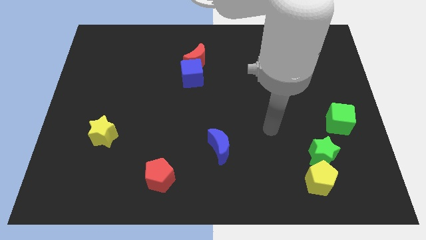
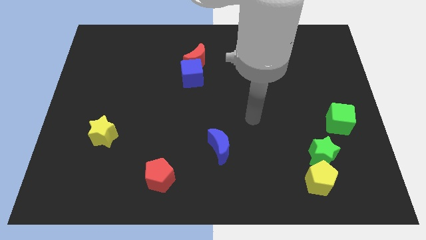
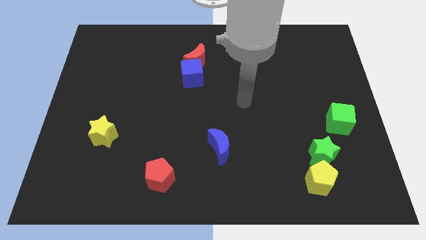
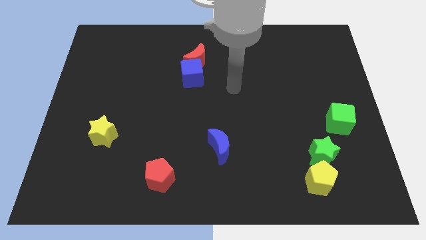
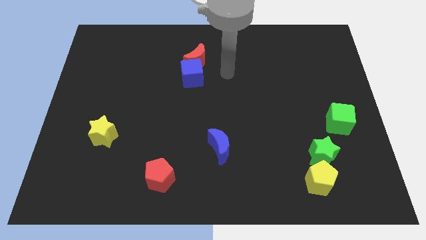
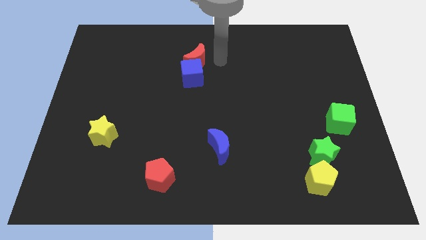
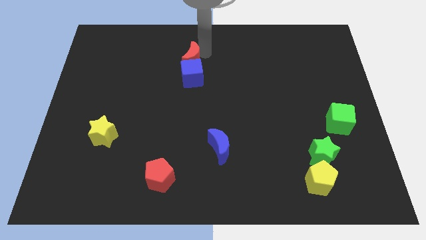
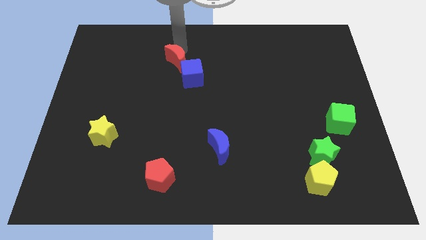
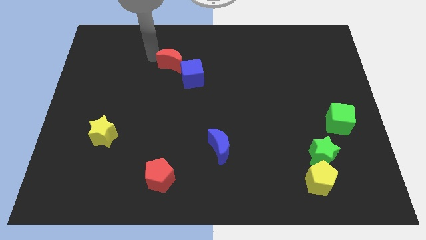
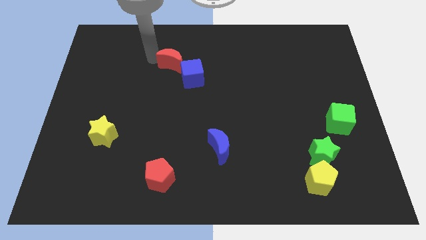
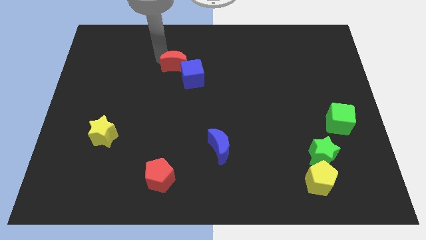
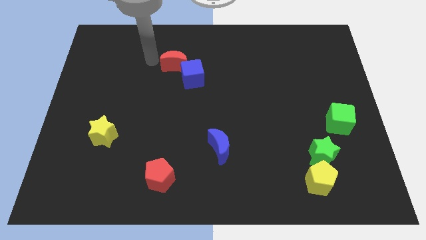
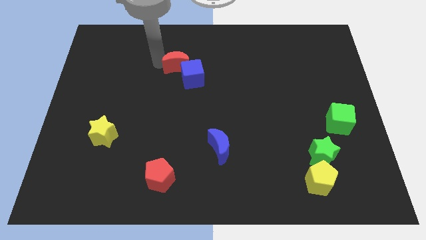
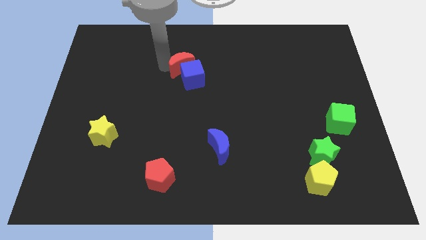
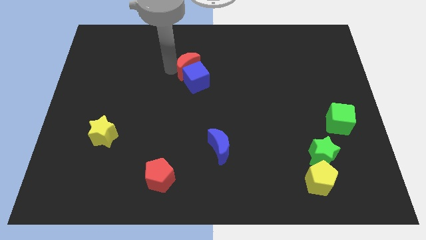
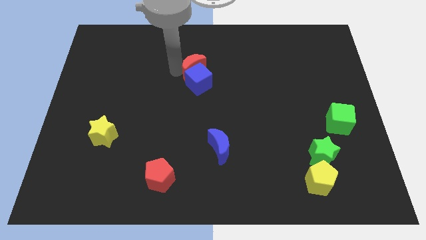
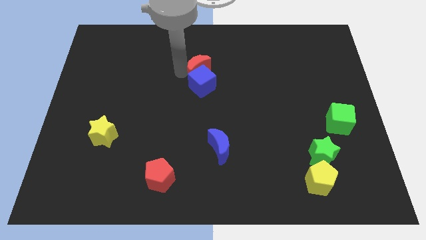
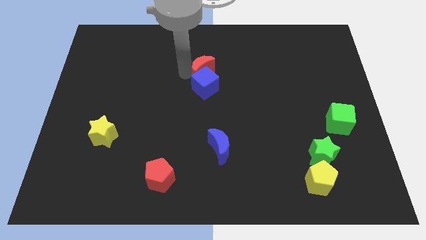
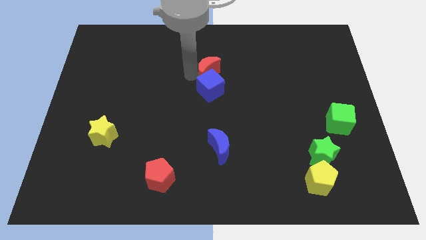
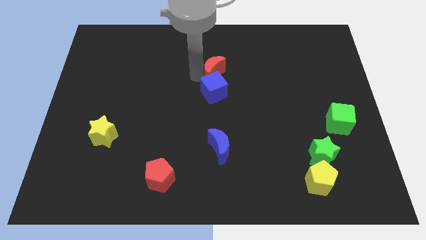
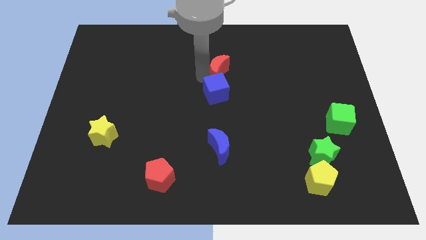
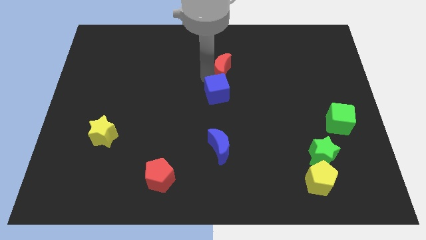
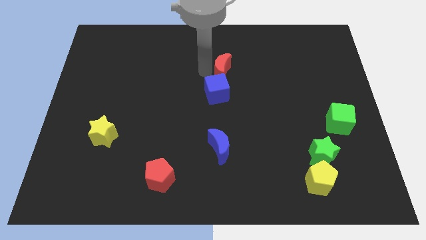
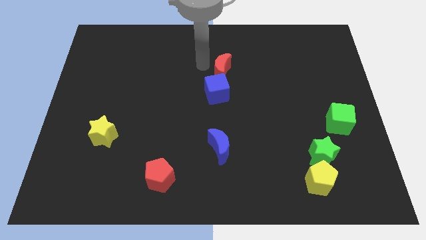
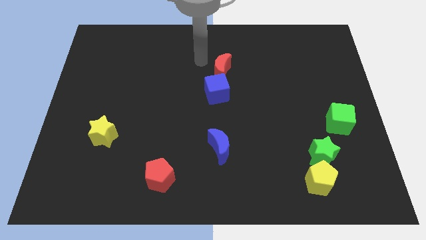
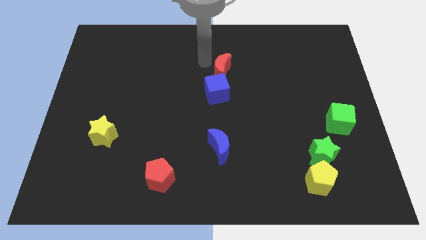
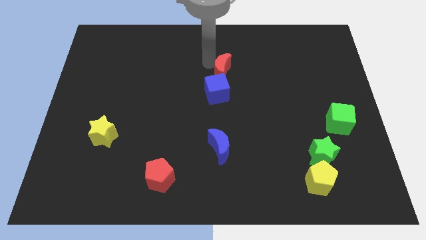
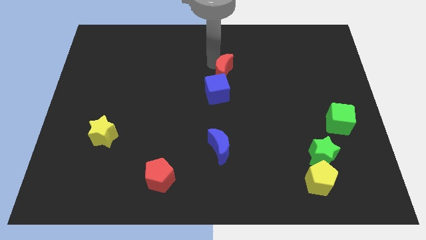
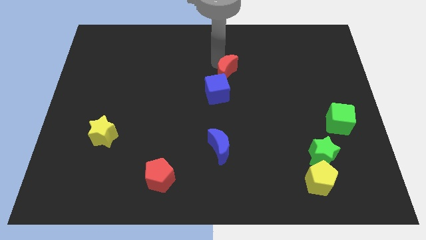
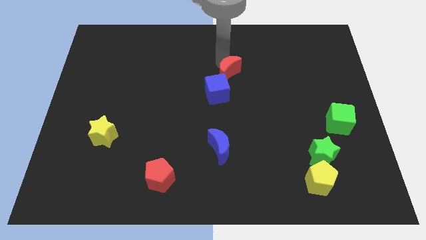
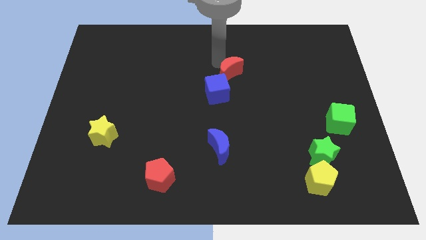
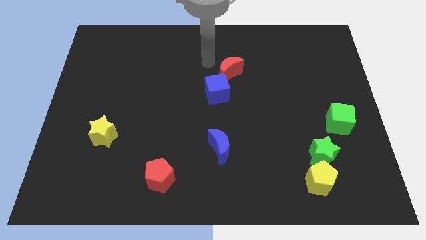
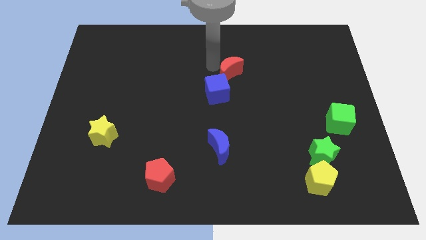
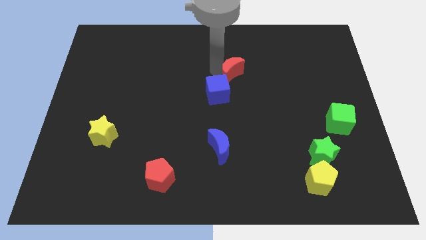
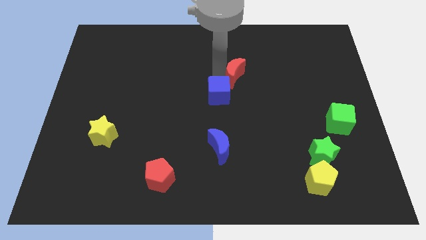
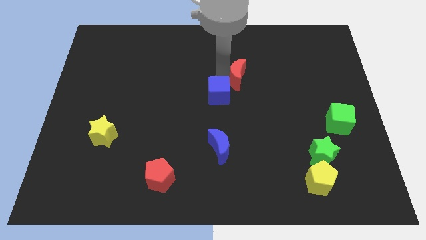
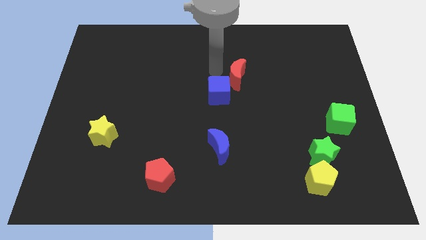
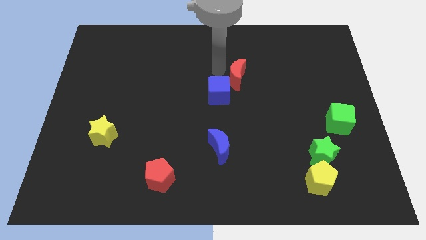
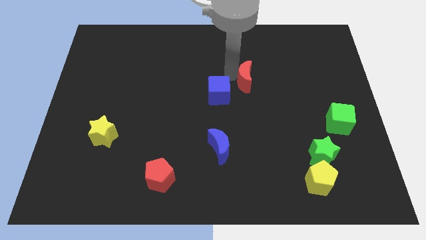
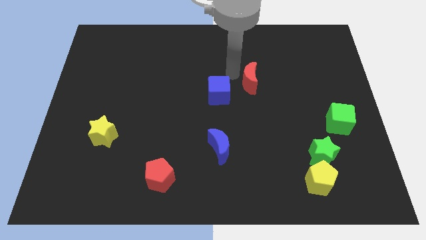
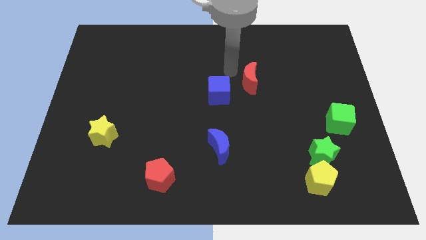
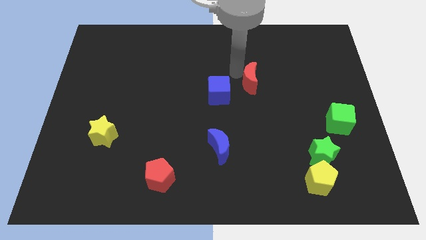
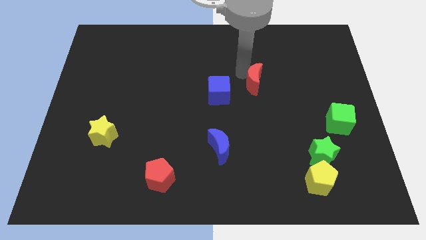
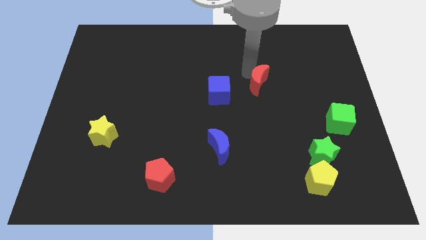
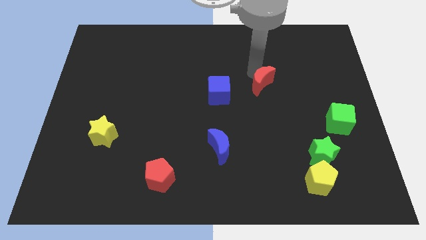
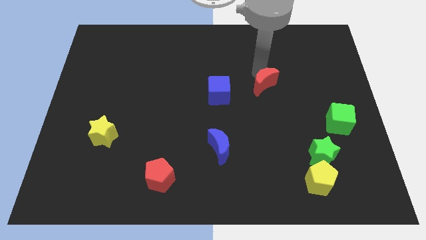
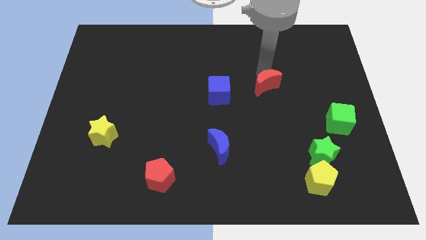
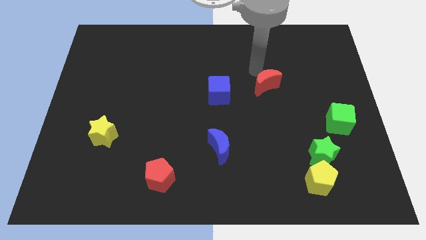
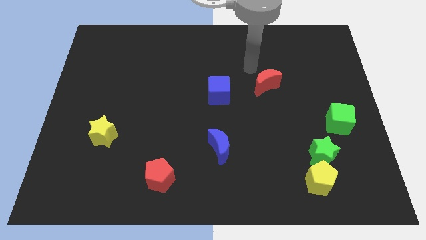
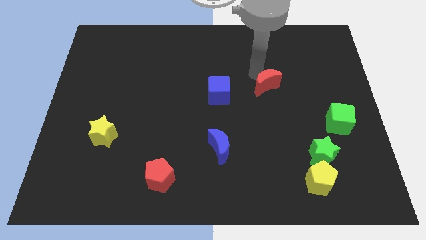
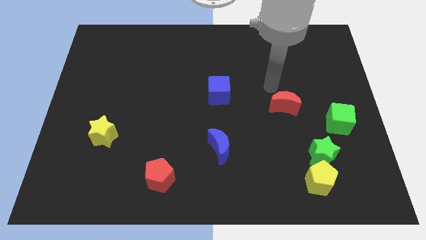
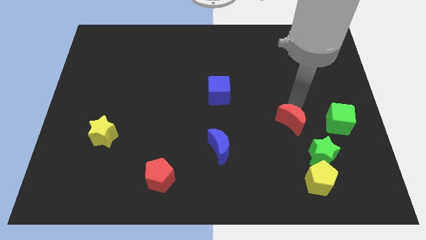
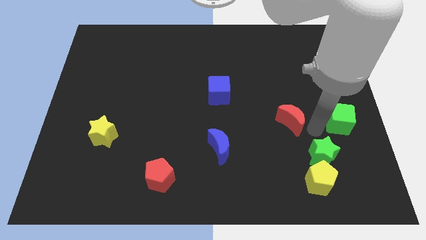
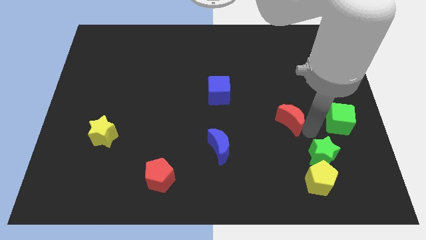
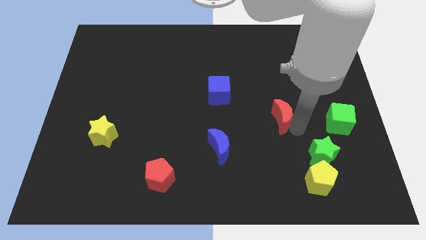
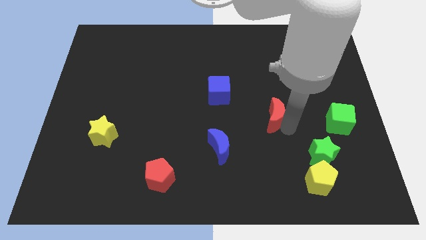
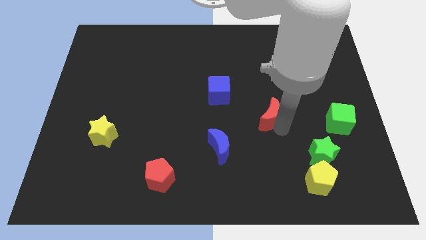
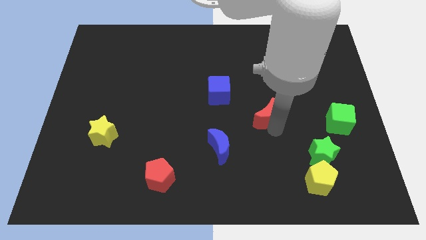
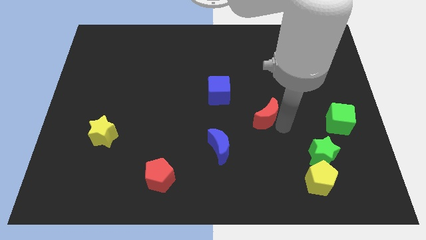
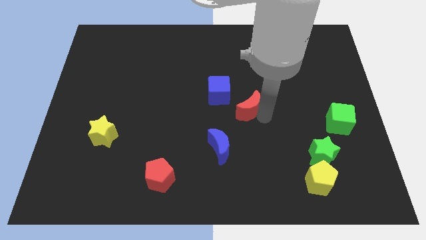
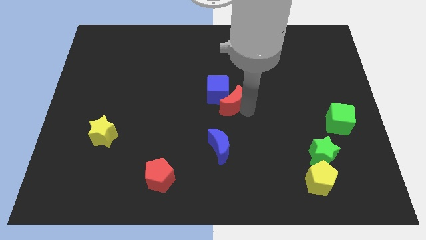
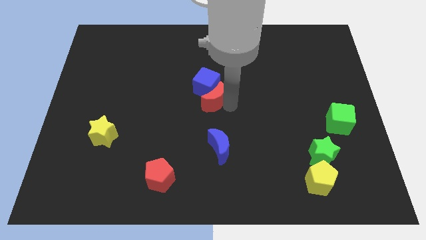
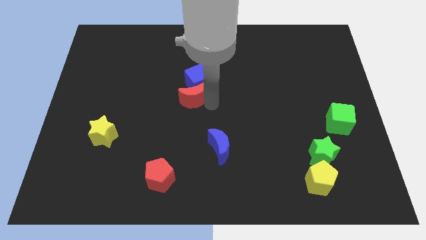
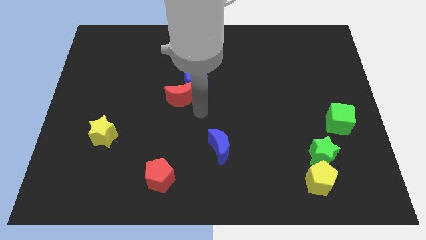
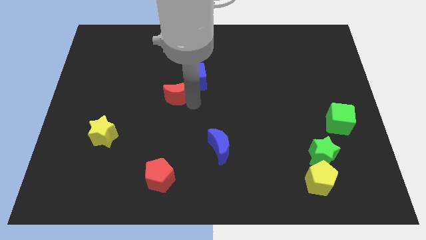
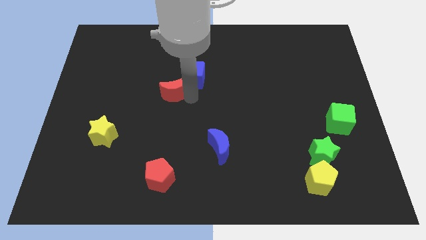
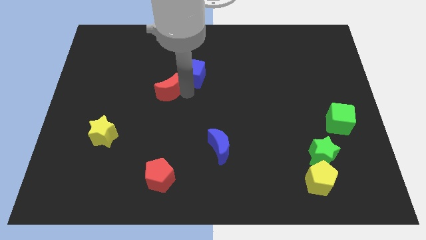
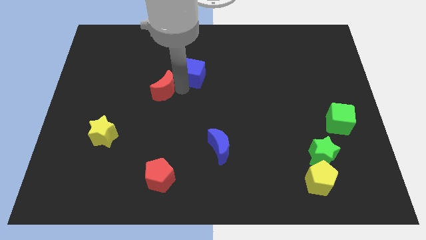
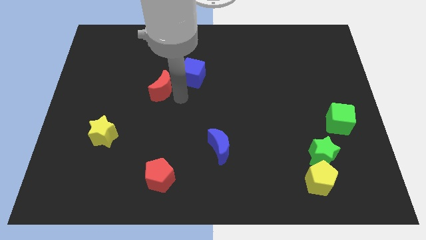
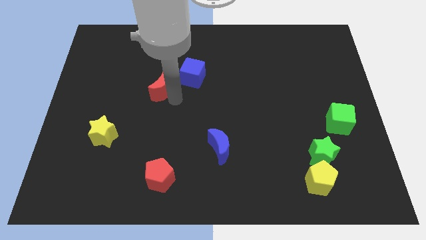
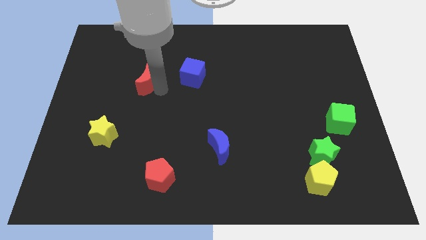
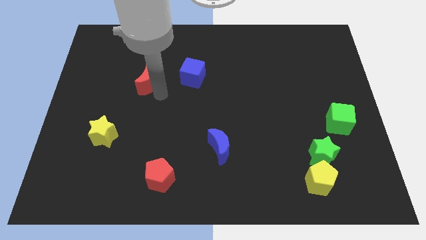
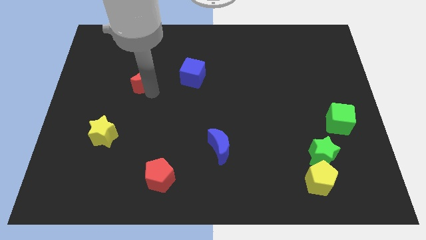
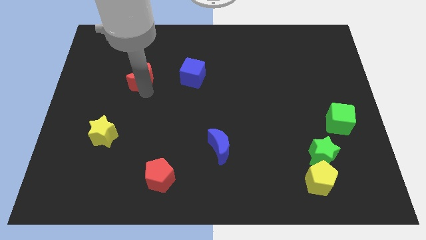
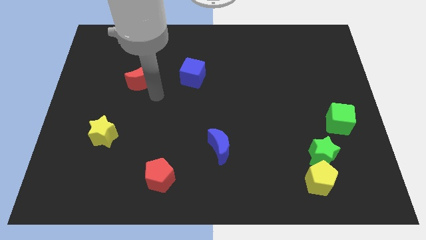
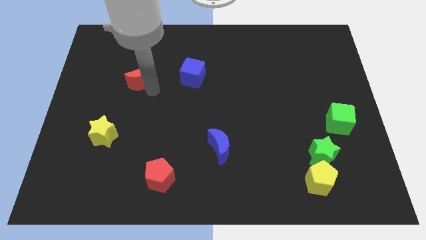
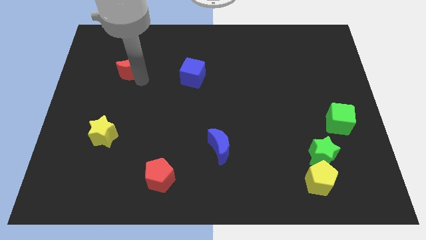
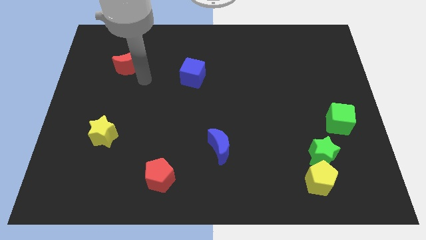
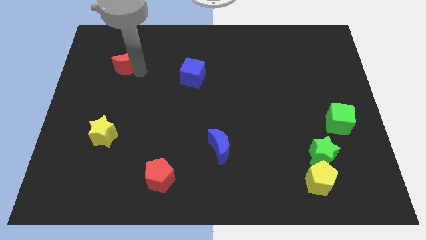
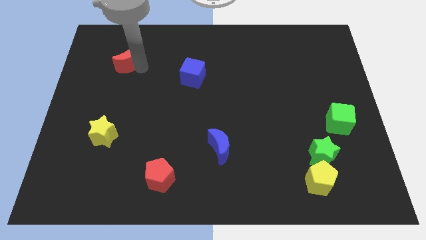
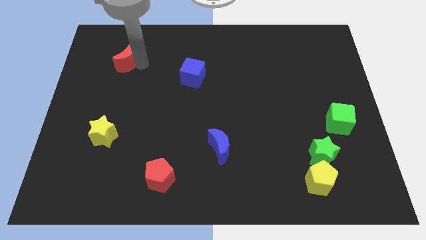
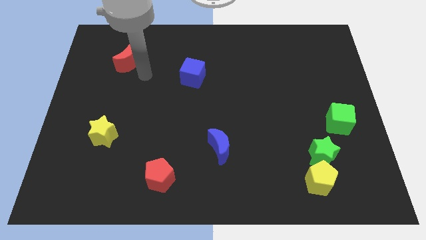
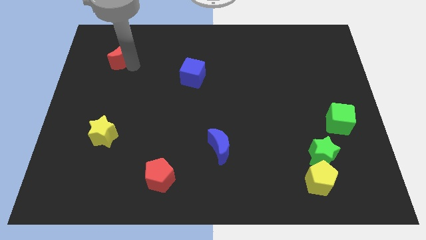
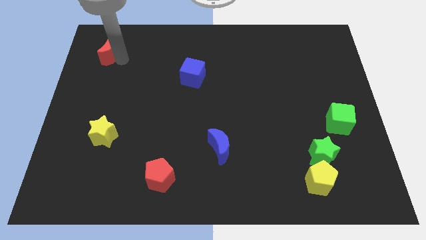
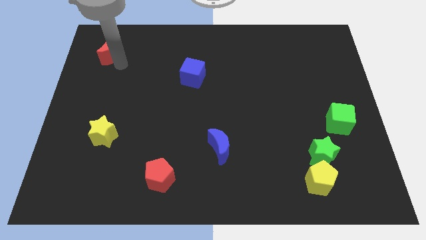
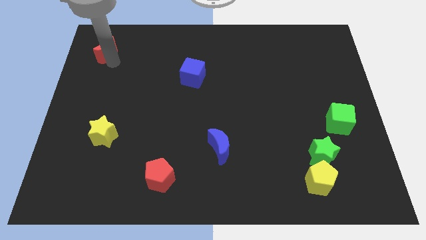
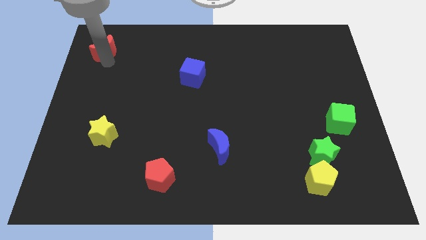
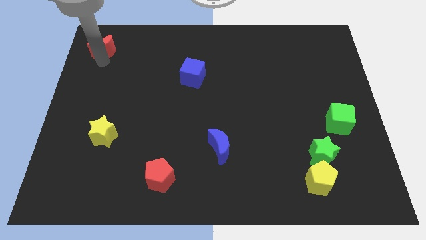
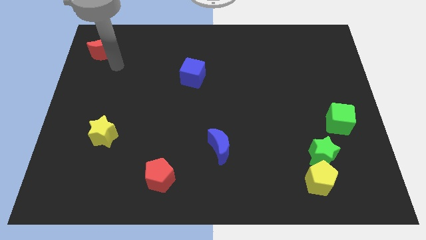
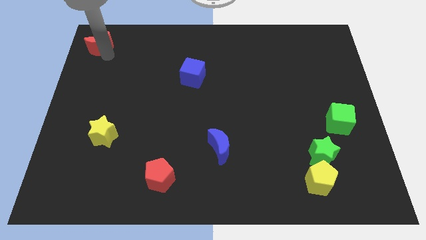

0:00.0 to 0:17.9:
slide the red moon to the top left of the board
